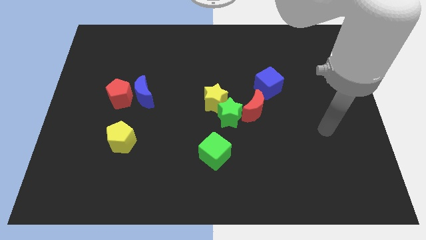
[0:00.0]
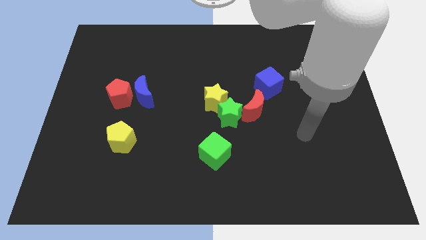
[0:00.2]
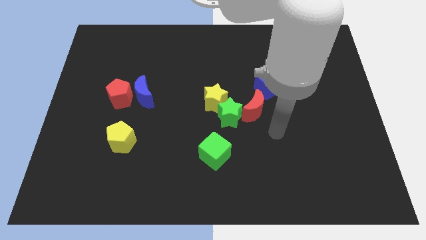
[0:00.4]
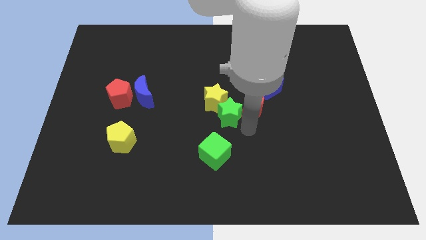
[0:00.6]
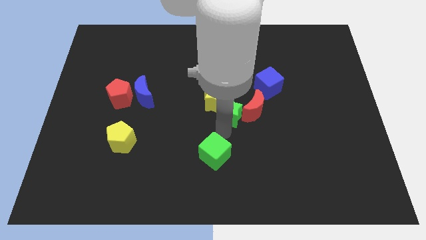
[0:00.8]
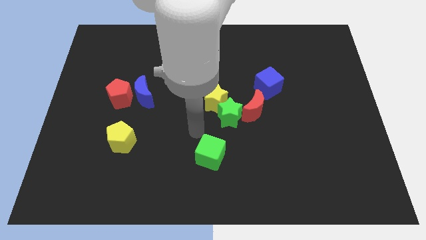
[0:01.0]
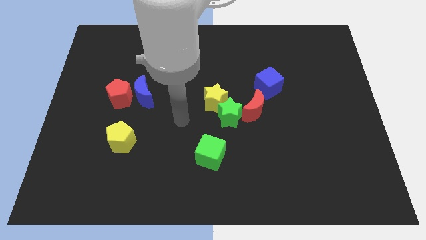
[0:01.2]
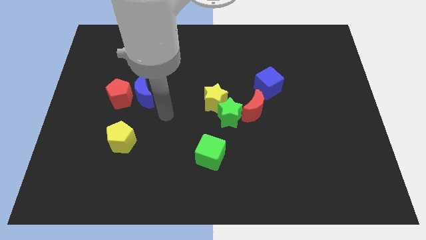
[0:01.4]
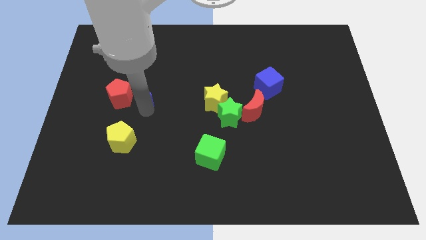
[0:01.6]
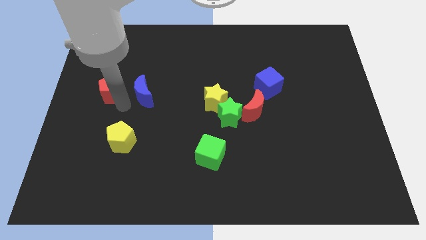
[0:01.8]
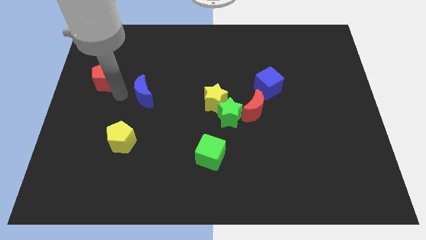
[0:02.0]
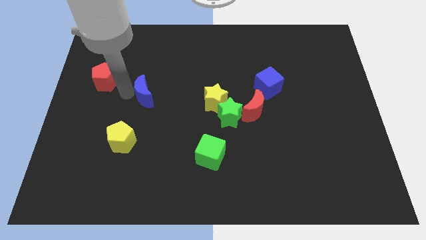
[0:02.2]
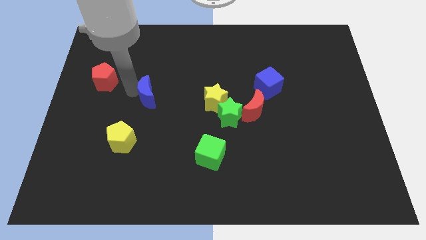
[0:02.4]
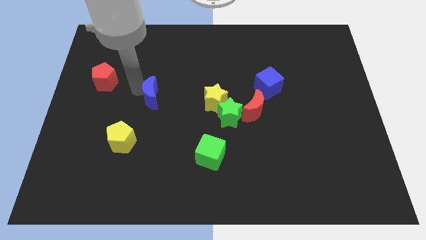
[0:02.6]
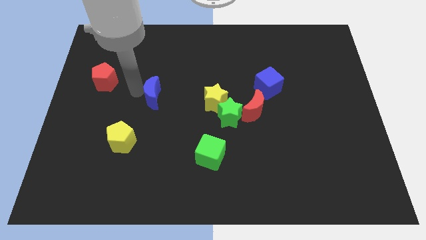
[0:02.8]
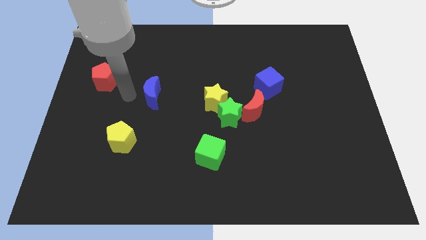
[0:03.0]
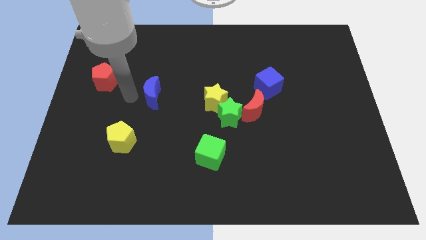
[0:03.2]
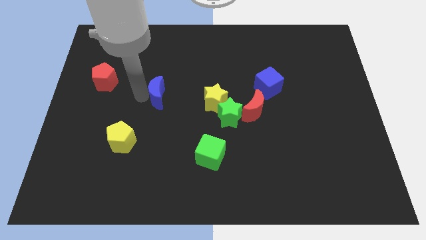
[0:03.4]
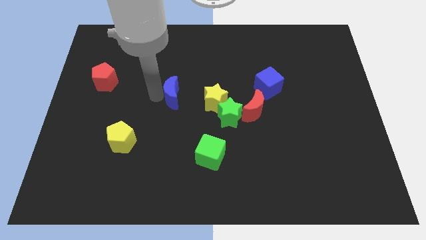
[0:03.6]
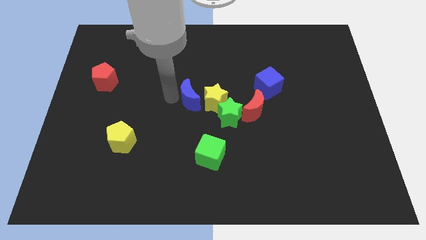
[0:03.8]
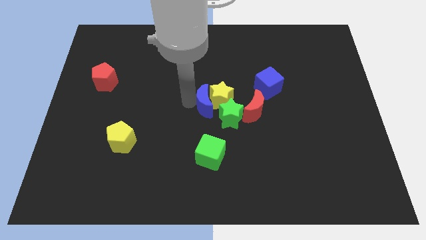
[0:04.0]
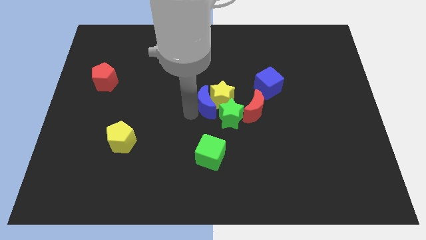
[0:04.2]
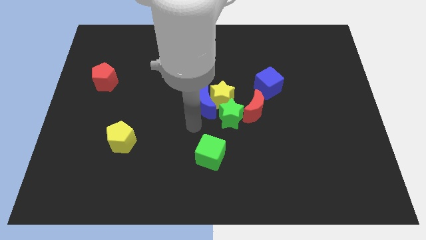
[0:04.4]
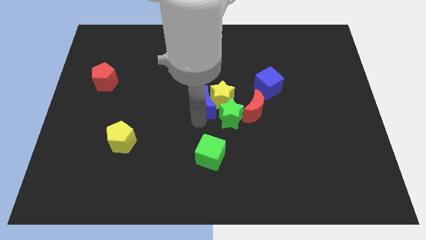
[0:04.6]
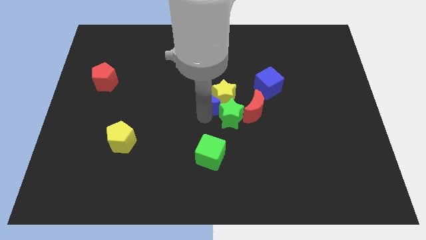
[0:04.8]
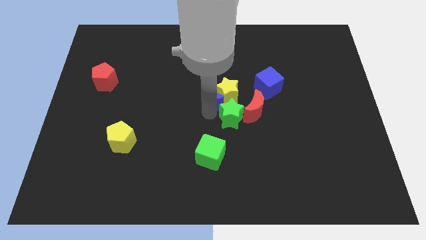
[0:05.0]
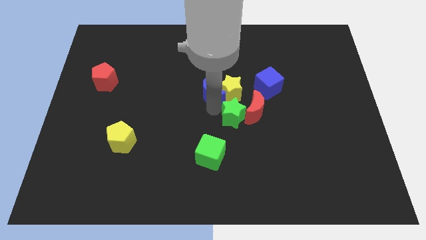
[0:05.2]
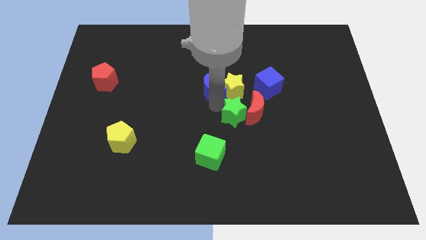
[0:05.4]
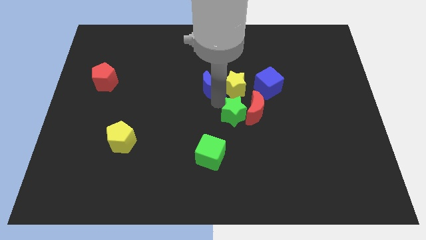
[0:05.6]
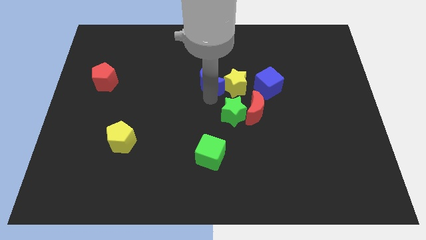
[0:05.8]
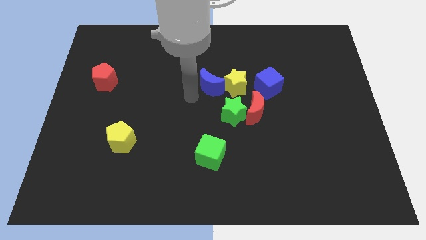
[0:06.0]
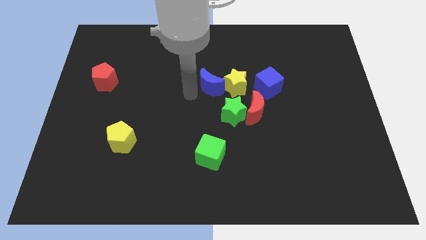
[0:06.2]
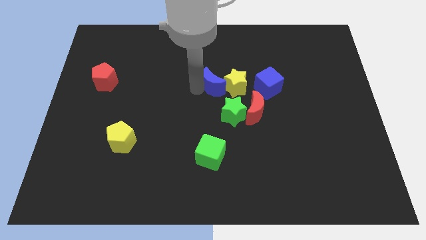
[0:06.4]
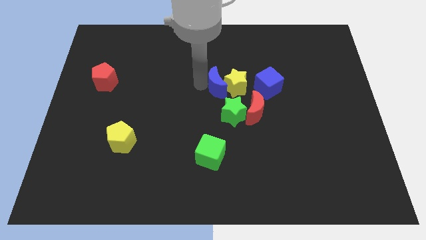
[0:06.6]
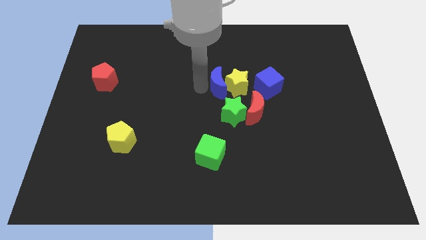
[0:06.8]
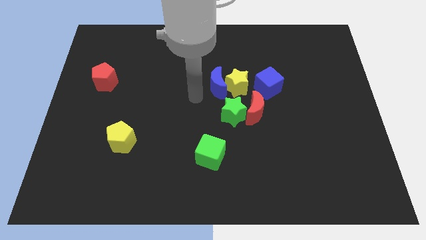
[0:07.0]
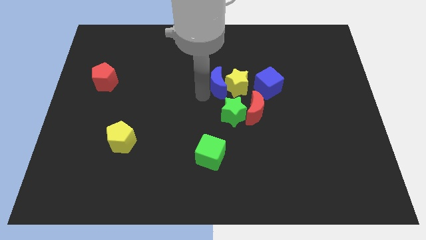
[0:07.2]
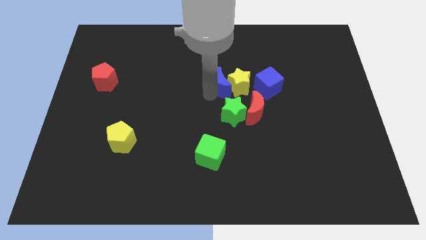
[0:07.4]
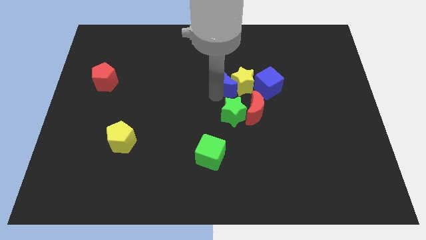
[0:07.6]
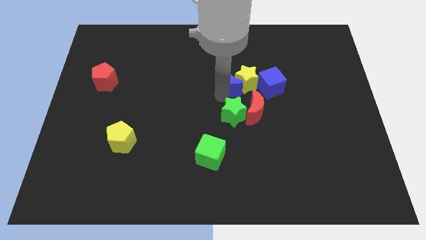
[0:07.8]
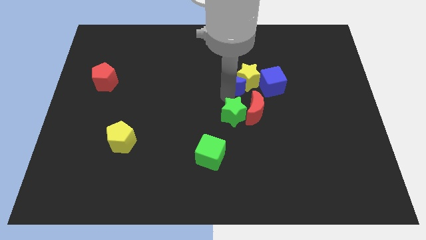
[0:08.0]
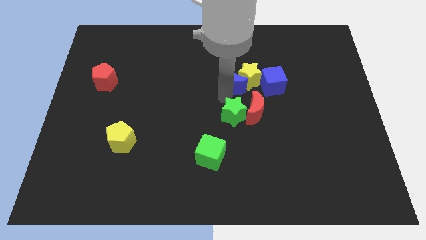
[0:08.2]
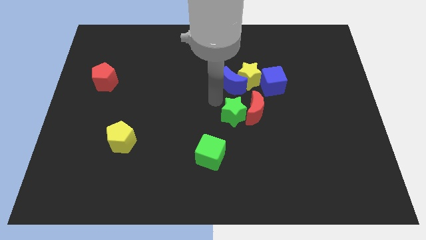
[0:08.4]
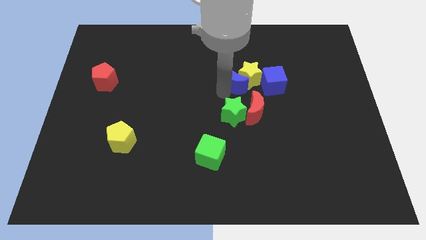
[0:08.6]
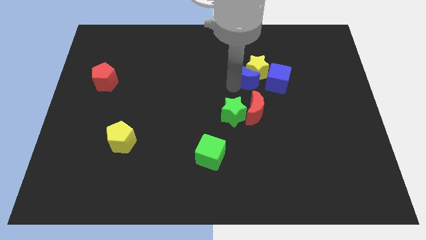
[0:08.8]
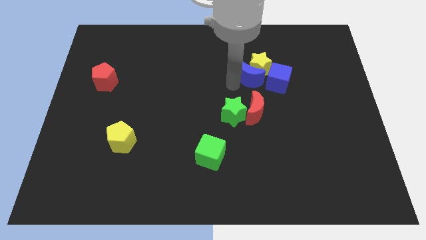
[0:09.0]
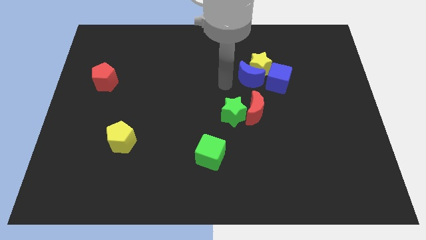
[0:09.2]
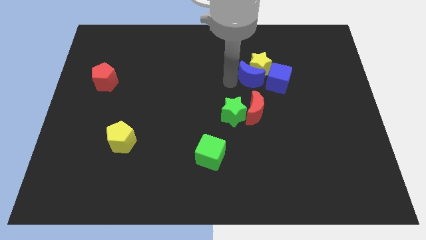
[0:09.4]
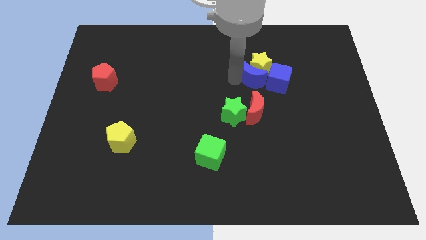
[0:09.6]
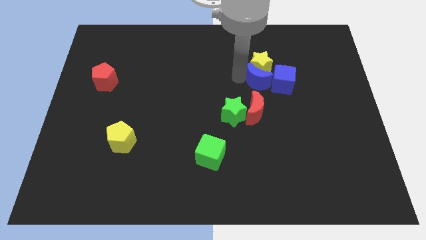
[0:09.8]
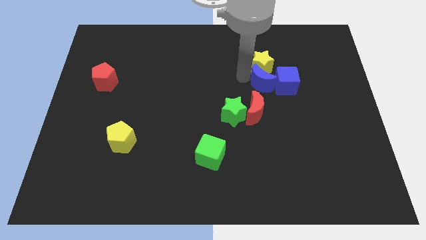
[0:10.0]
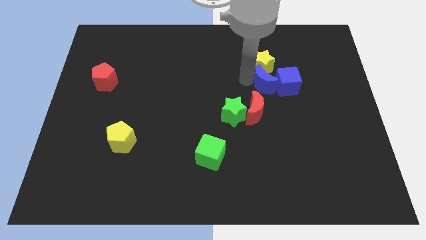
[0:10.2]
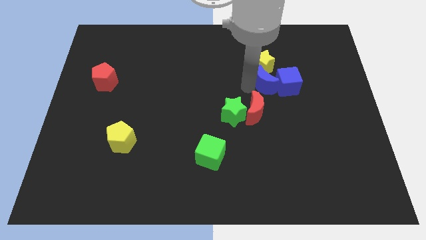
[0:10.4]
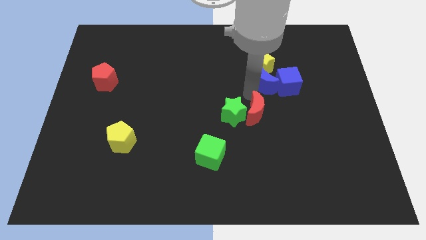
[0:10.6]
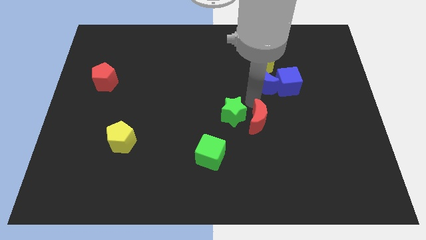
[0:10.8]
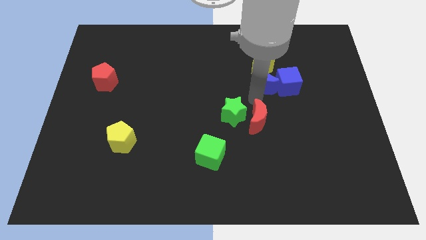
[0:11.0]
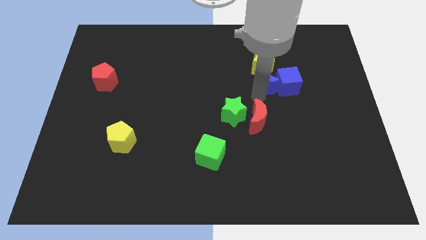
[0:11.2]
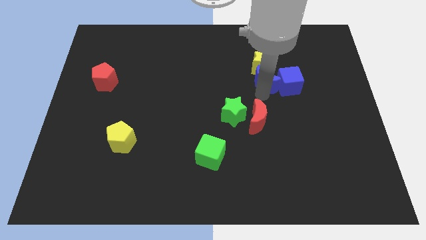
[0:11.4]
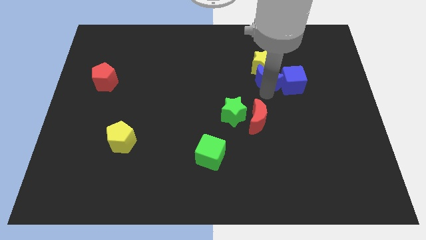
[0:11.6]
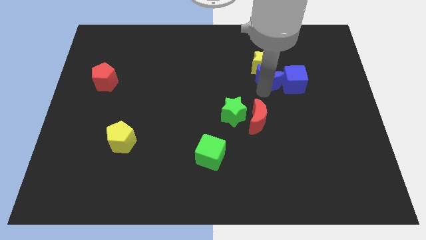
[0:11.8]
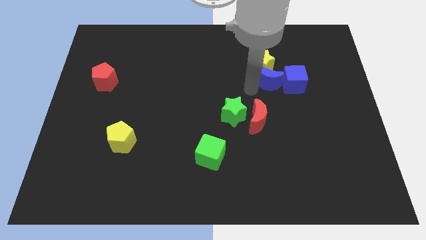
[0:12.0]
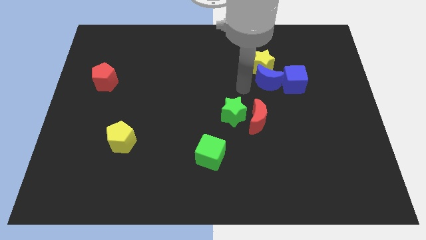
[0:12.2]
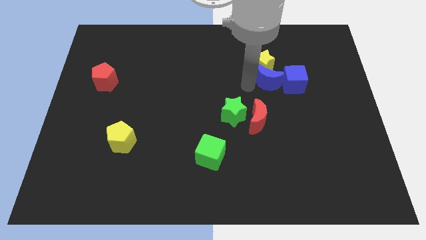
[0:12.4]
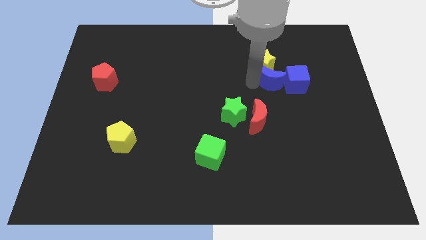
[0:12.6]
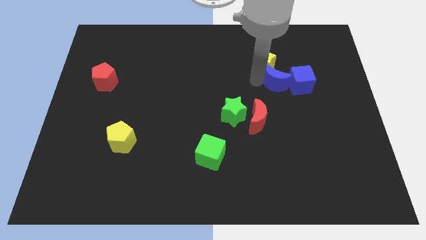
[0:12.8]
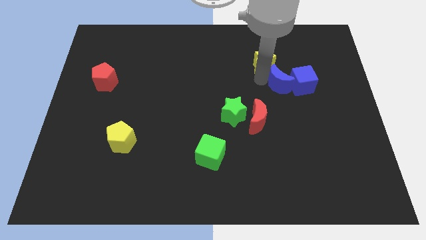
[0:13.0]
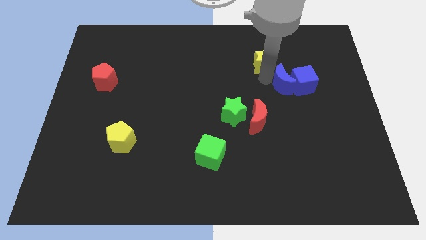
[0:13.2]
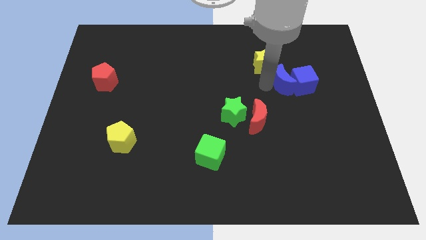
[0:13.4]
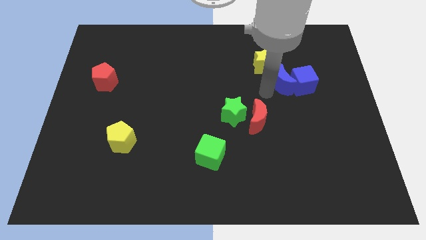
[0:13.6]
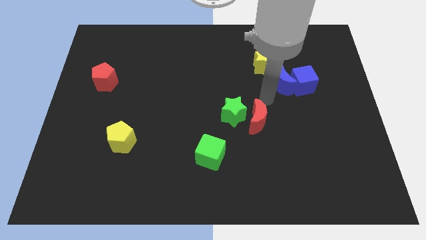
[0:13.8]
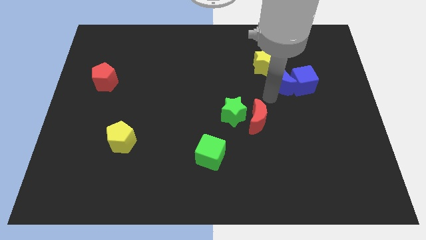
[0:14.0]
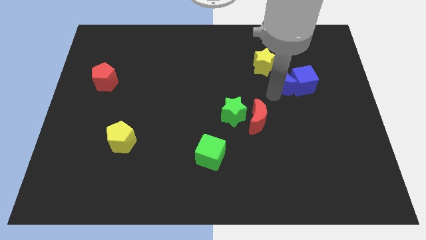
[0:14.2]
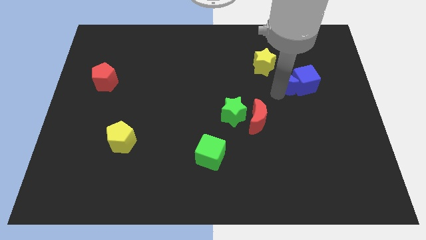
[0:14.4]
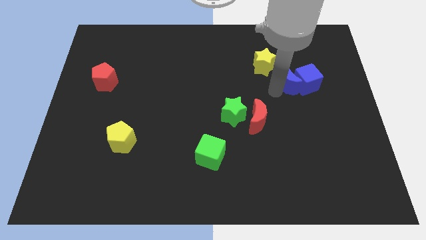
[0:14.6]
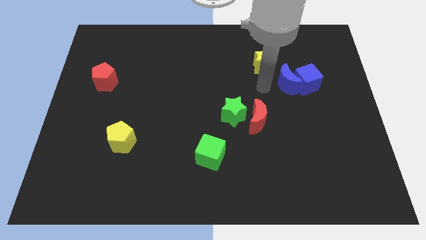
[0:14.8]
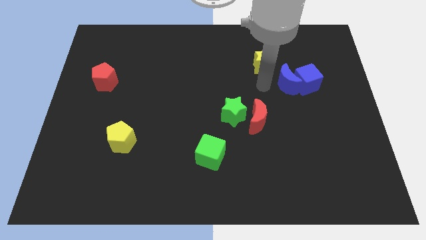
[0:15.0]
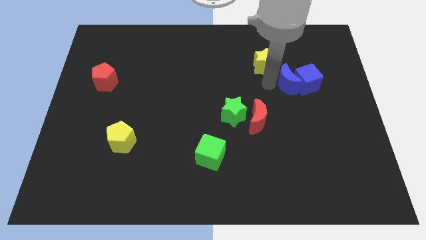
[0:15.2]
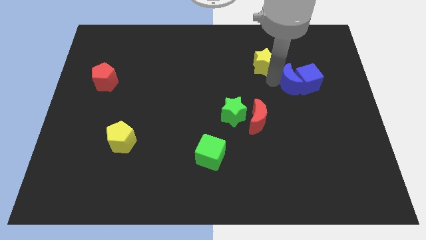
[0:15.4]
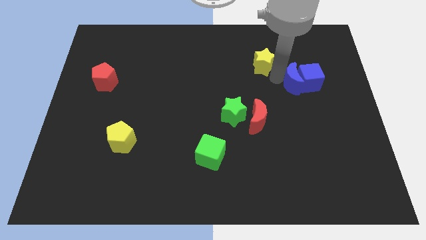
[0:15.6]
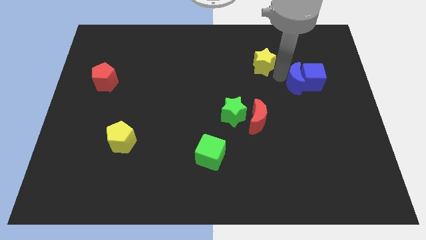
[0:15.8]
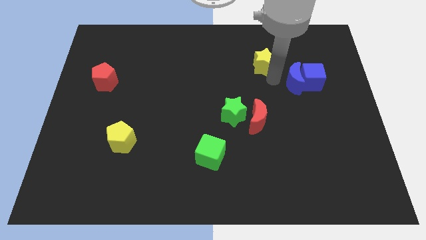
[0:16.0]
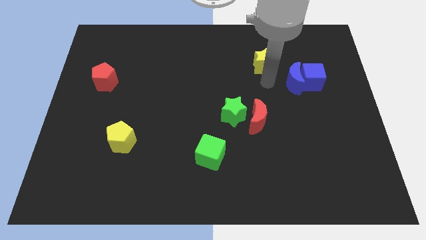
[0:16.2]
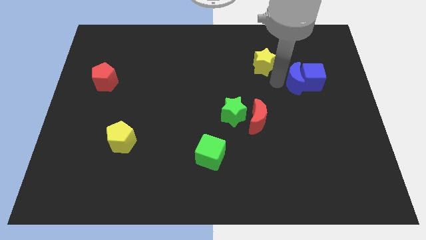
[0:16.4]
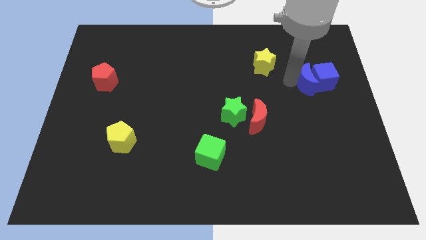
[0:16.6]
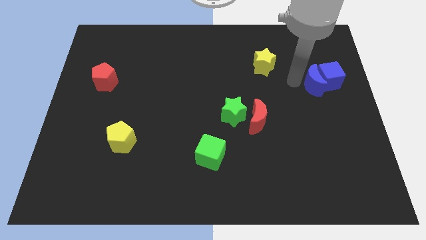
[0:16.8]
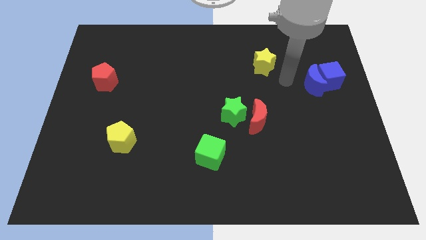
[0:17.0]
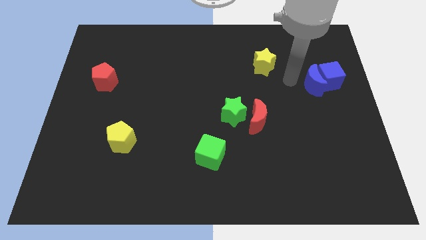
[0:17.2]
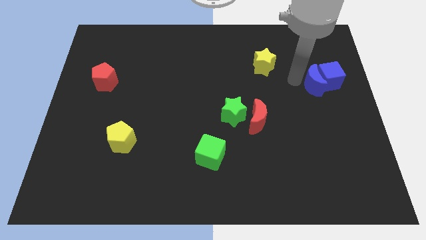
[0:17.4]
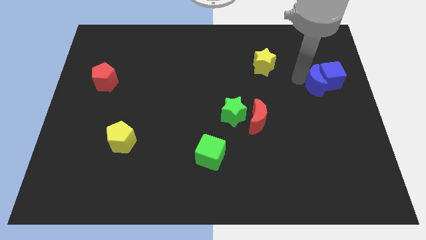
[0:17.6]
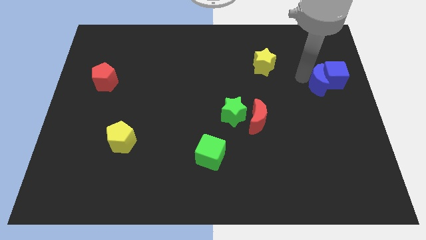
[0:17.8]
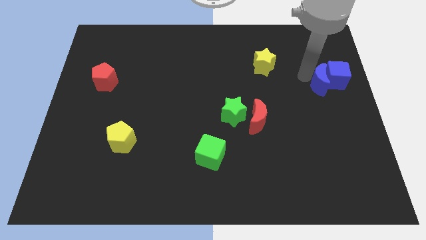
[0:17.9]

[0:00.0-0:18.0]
move the blue moon to the right side
